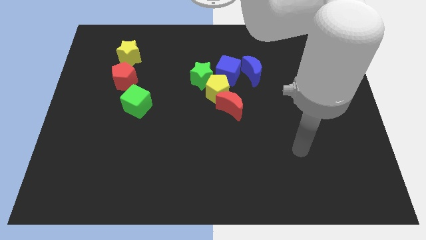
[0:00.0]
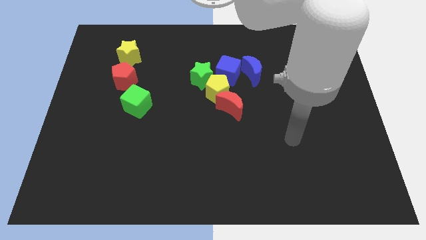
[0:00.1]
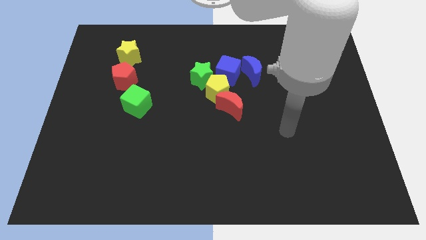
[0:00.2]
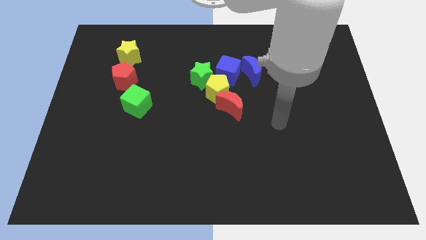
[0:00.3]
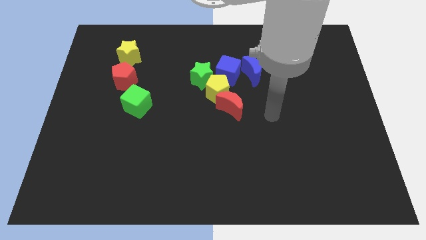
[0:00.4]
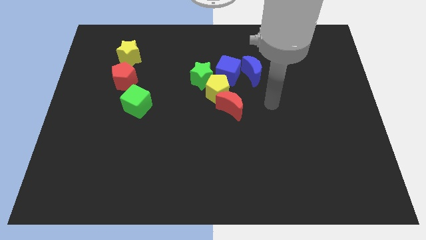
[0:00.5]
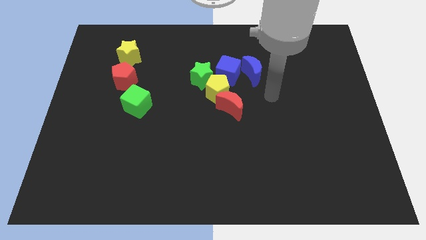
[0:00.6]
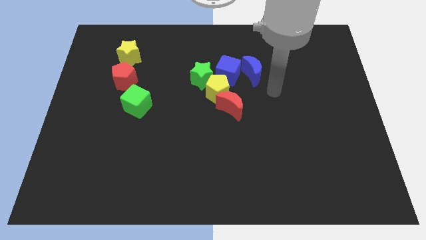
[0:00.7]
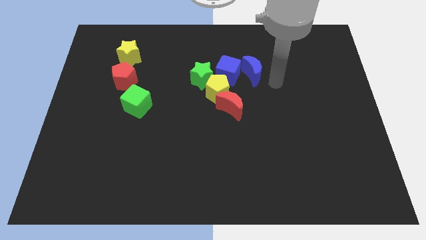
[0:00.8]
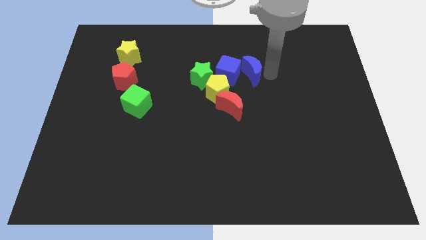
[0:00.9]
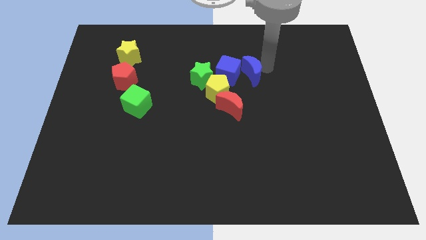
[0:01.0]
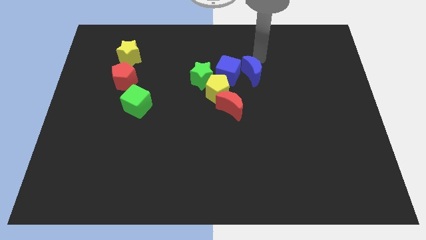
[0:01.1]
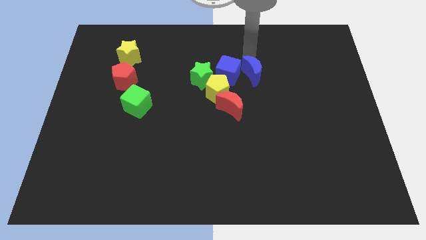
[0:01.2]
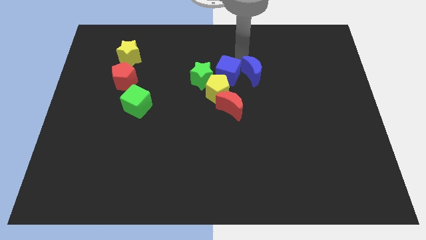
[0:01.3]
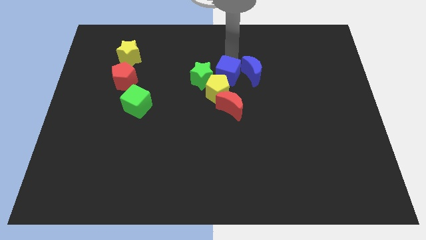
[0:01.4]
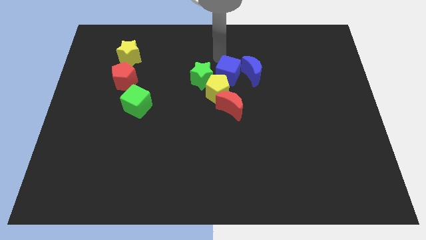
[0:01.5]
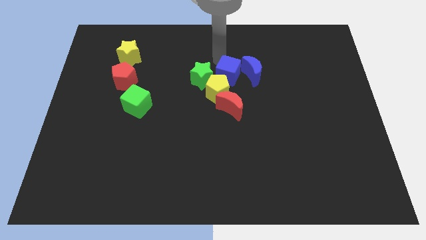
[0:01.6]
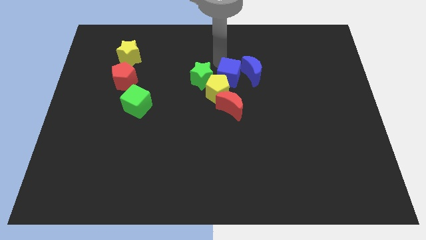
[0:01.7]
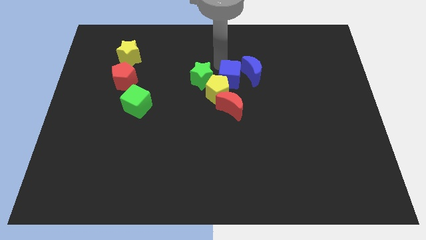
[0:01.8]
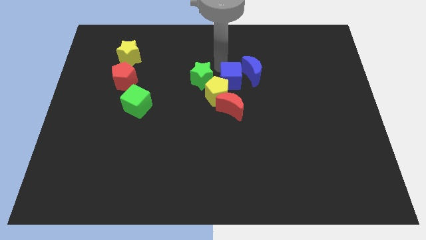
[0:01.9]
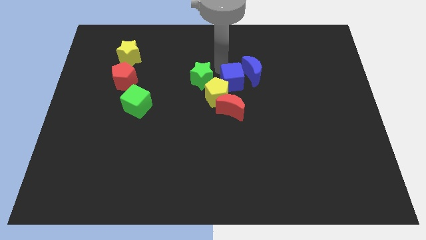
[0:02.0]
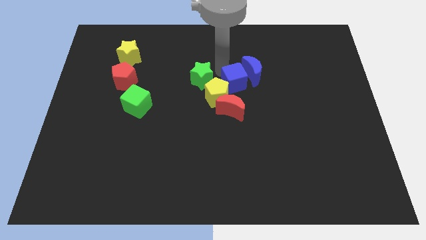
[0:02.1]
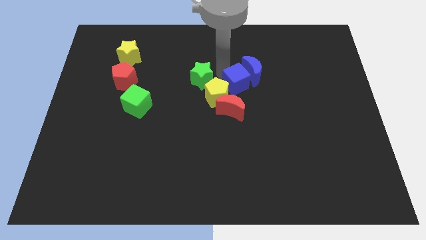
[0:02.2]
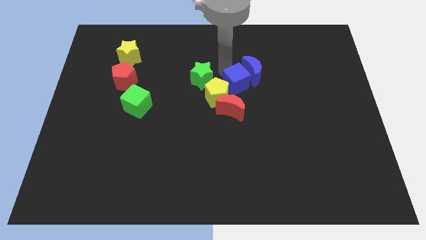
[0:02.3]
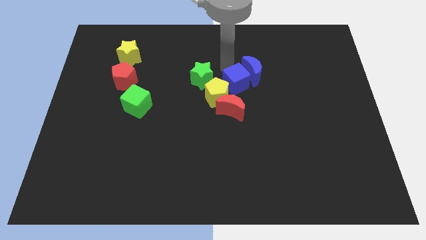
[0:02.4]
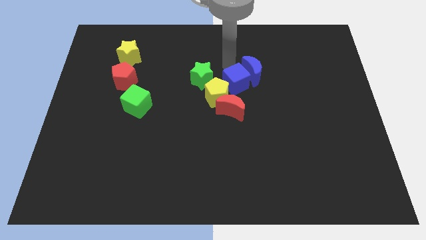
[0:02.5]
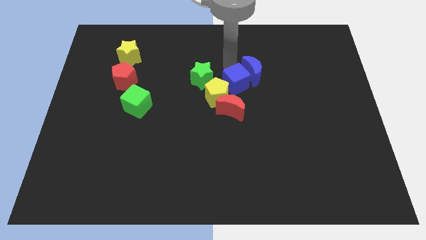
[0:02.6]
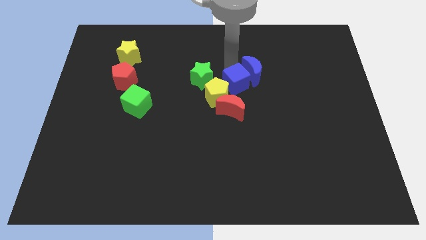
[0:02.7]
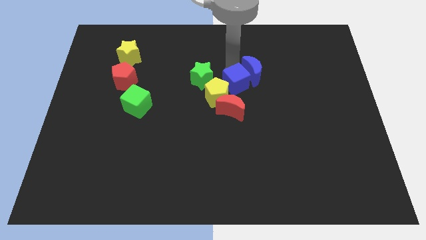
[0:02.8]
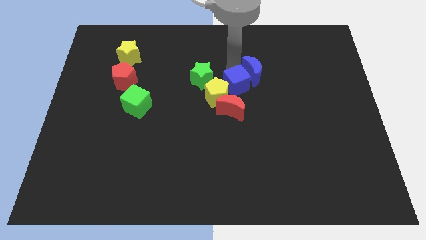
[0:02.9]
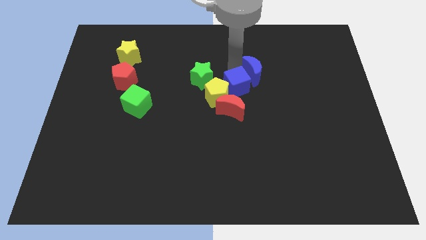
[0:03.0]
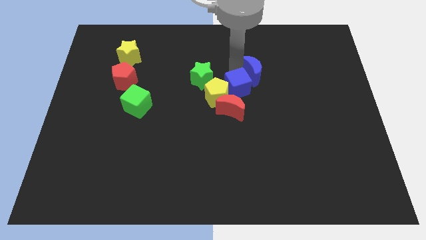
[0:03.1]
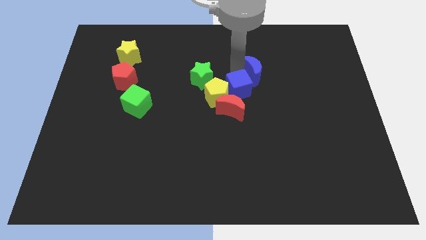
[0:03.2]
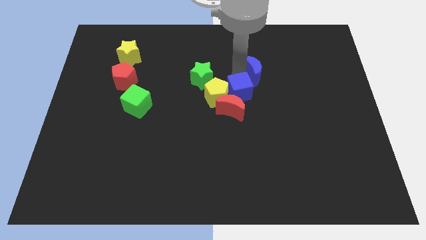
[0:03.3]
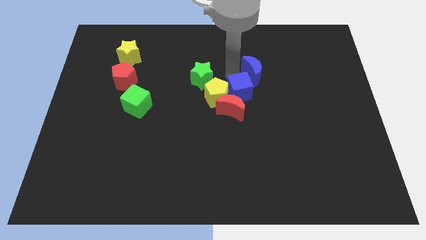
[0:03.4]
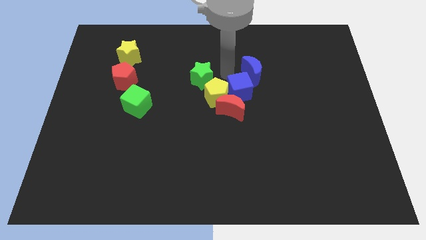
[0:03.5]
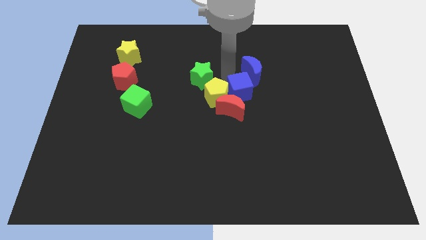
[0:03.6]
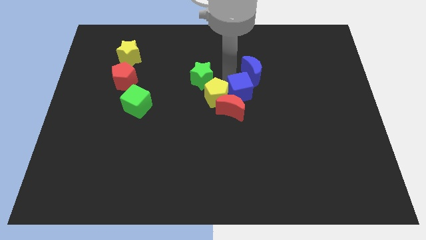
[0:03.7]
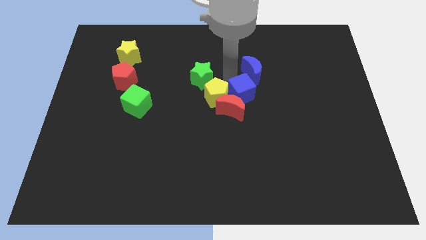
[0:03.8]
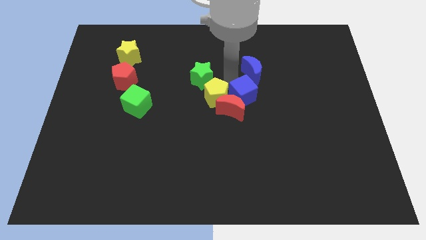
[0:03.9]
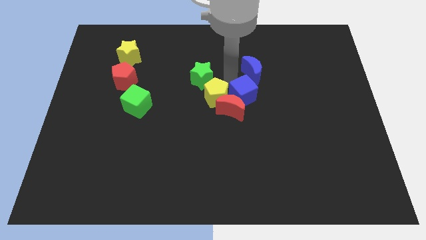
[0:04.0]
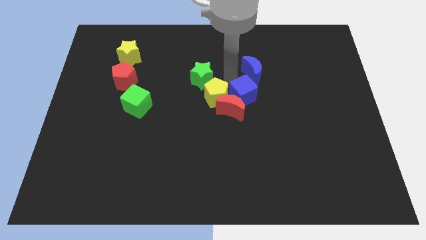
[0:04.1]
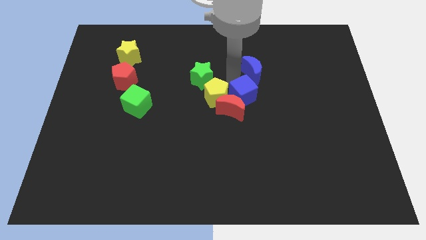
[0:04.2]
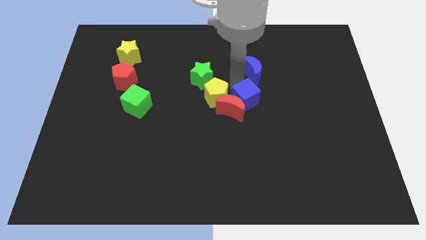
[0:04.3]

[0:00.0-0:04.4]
push the blue cube a little downwards

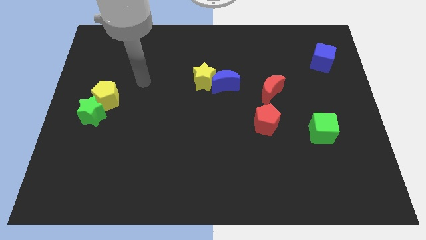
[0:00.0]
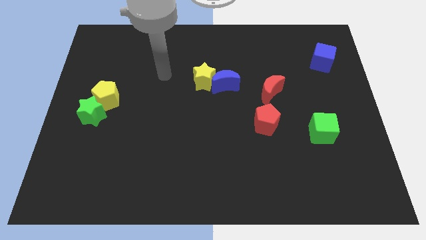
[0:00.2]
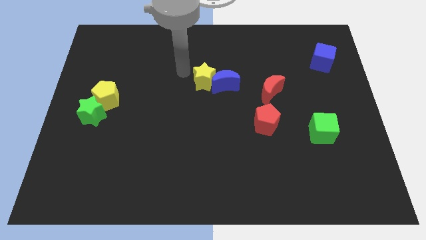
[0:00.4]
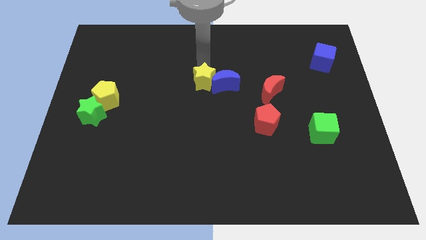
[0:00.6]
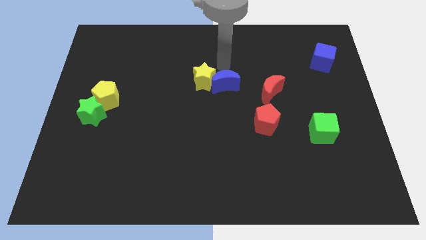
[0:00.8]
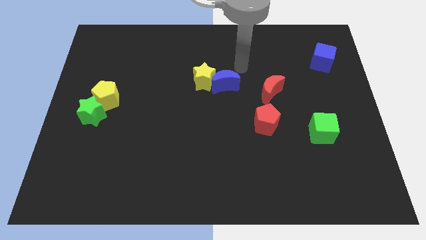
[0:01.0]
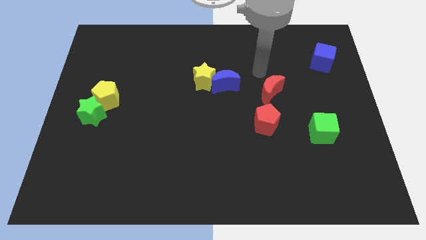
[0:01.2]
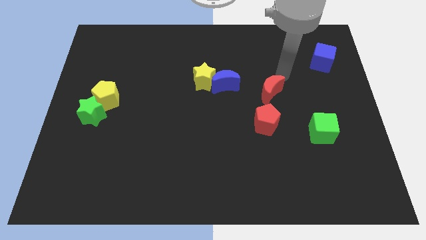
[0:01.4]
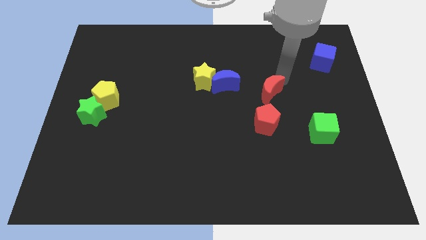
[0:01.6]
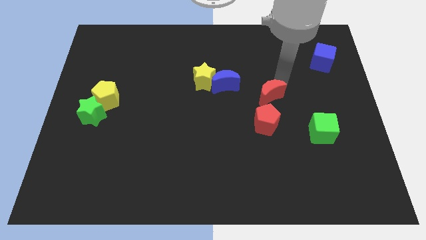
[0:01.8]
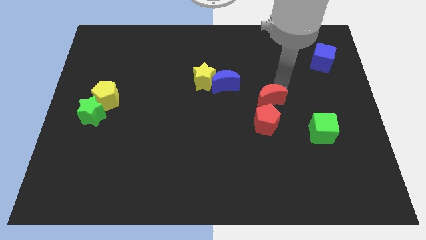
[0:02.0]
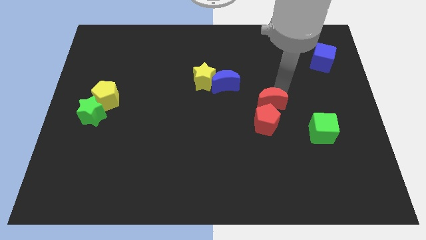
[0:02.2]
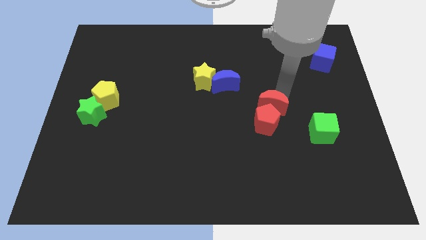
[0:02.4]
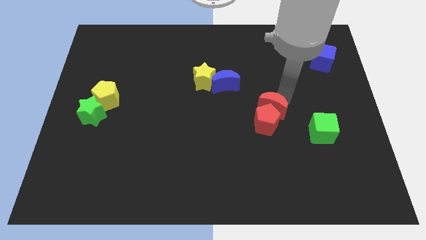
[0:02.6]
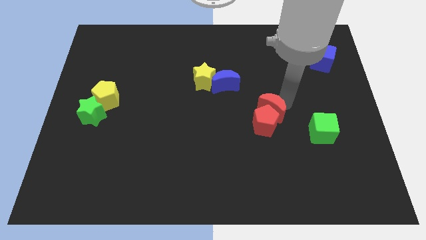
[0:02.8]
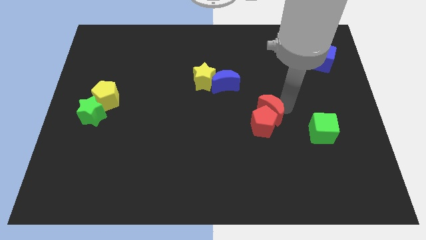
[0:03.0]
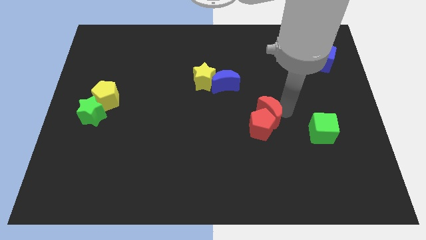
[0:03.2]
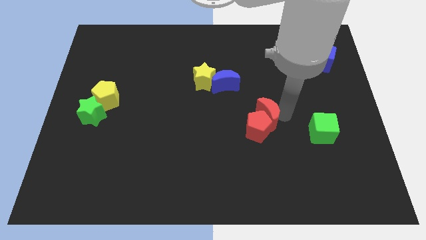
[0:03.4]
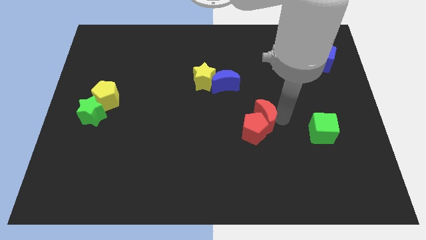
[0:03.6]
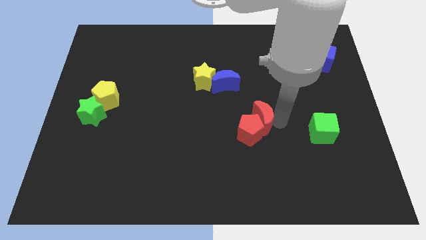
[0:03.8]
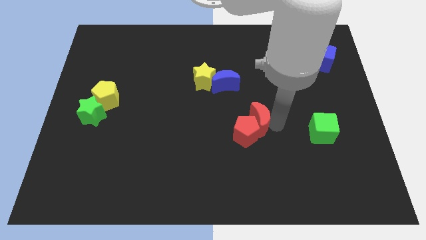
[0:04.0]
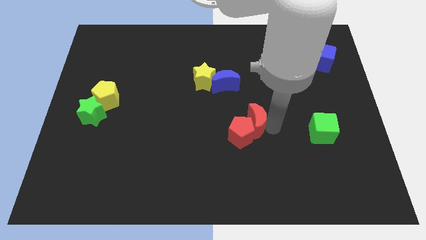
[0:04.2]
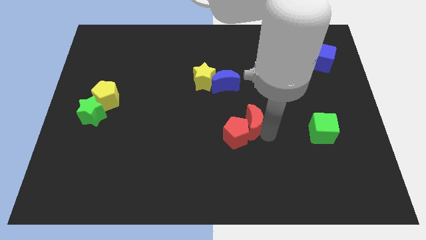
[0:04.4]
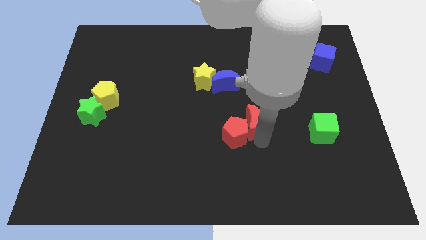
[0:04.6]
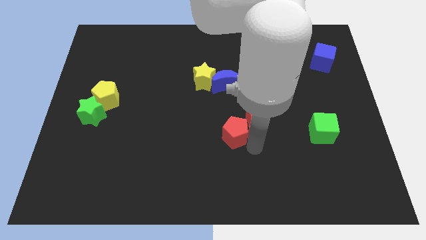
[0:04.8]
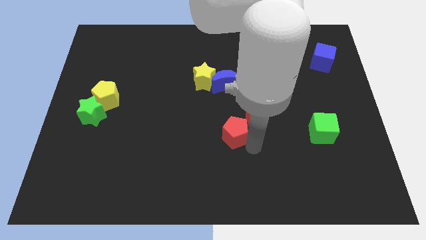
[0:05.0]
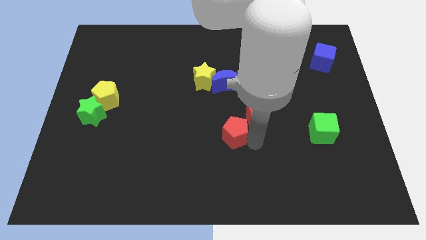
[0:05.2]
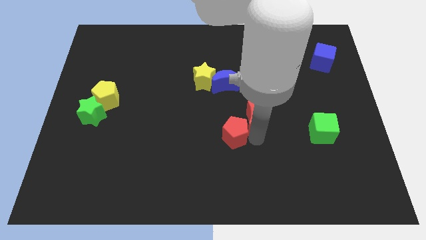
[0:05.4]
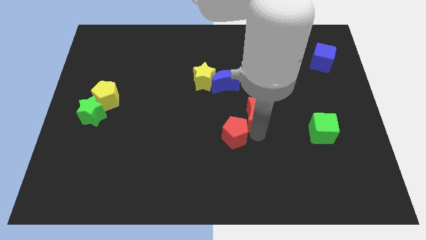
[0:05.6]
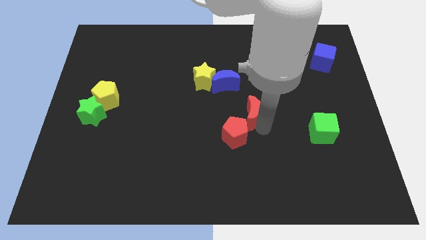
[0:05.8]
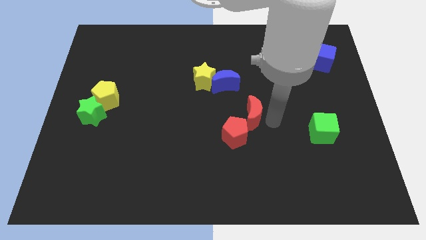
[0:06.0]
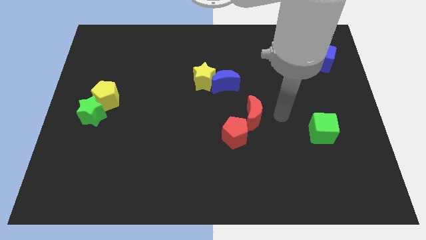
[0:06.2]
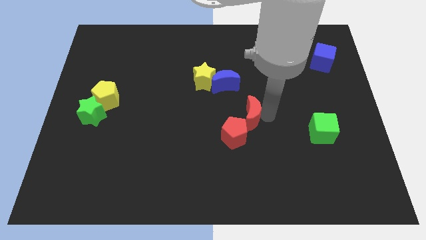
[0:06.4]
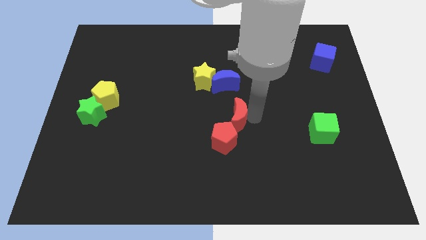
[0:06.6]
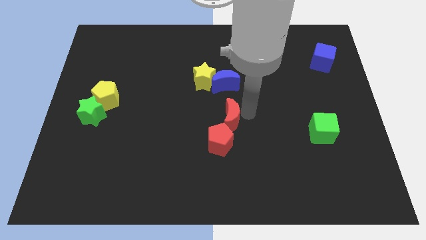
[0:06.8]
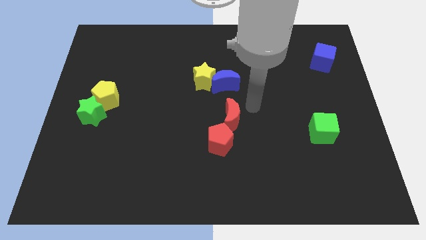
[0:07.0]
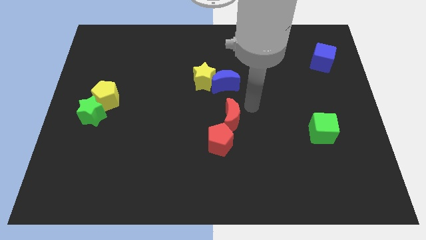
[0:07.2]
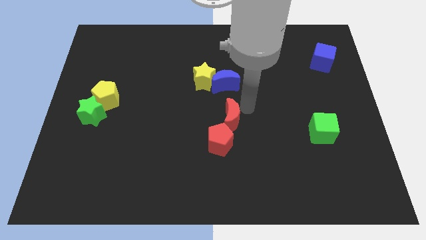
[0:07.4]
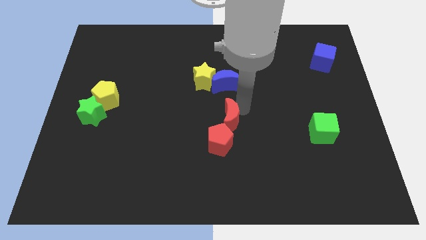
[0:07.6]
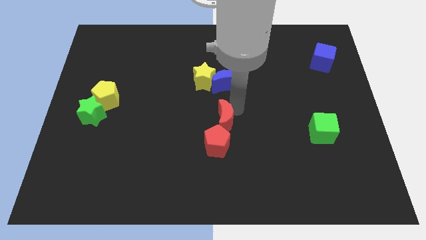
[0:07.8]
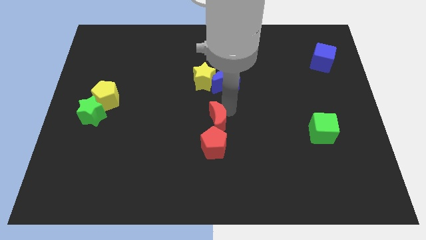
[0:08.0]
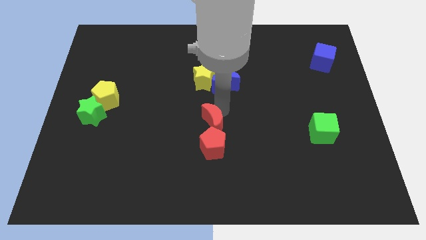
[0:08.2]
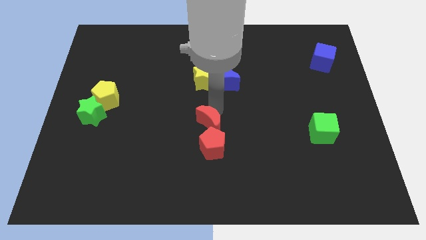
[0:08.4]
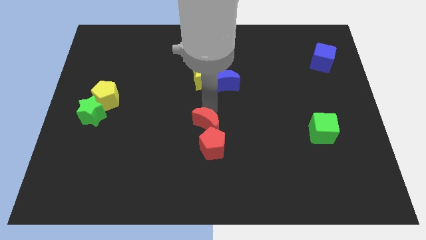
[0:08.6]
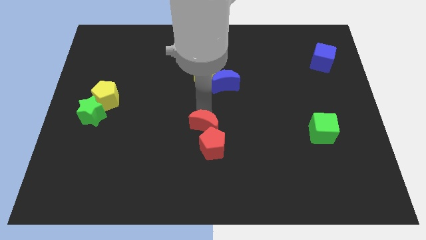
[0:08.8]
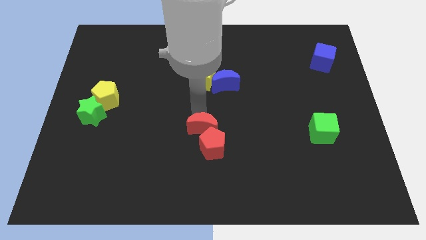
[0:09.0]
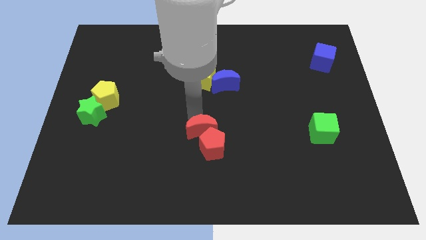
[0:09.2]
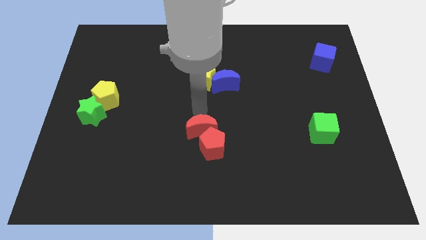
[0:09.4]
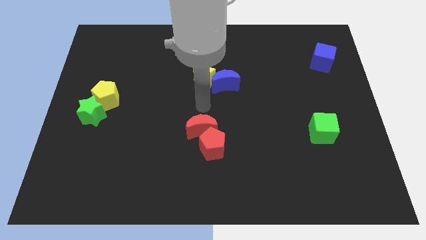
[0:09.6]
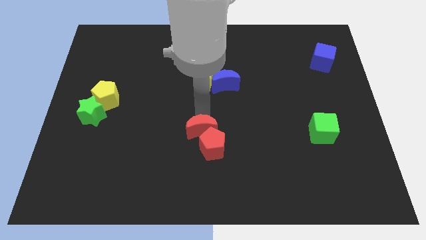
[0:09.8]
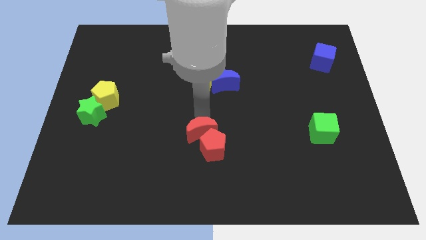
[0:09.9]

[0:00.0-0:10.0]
slide the red moon downwards and then left
